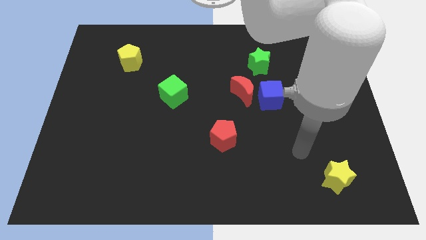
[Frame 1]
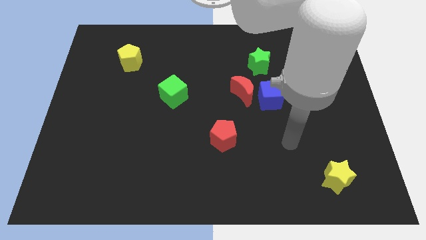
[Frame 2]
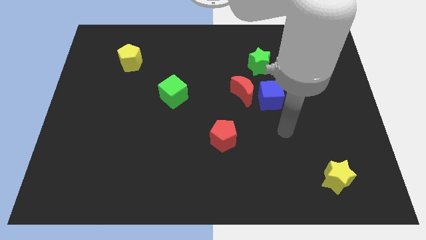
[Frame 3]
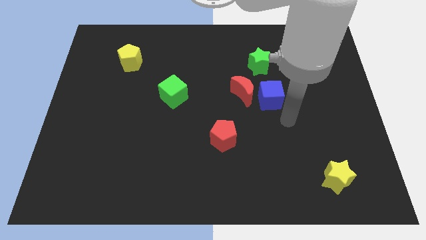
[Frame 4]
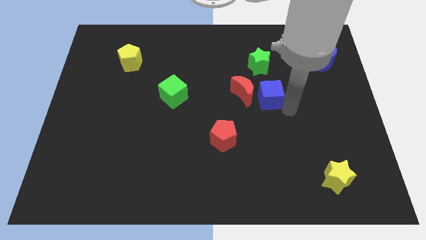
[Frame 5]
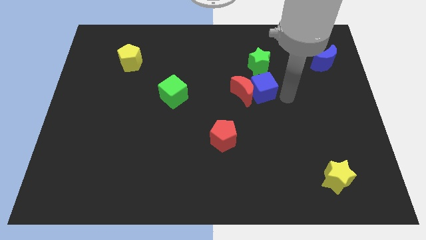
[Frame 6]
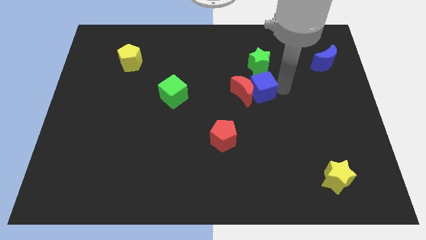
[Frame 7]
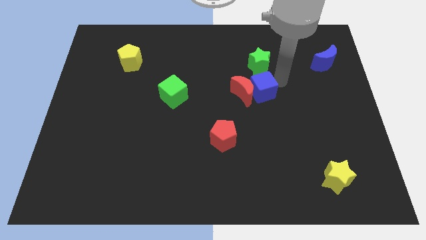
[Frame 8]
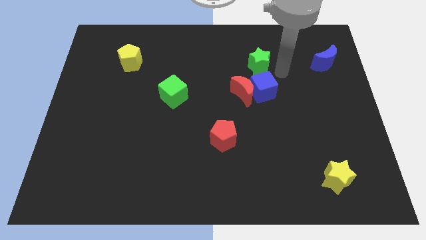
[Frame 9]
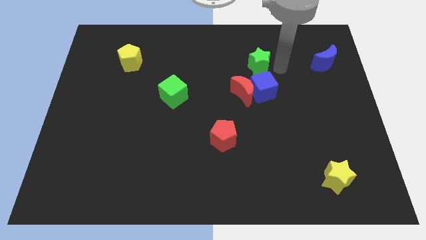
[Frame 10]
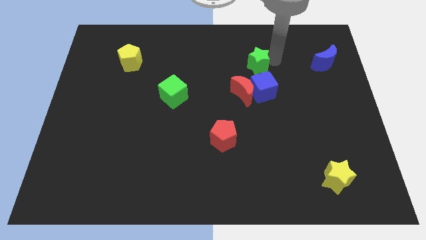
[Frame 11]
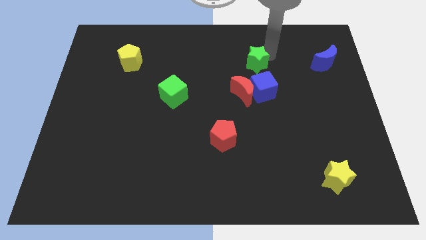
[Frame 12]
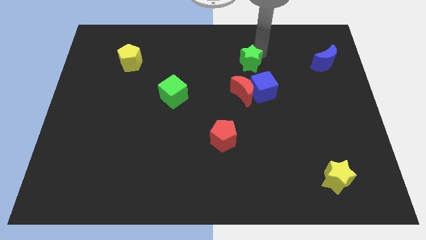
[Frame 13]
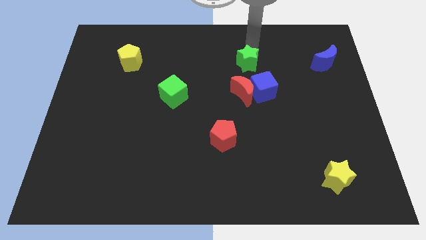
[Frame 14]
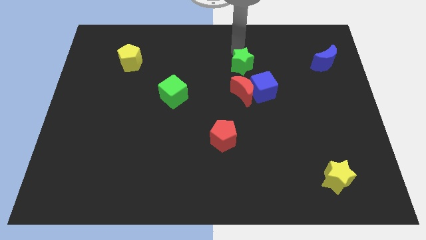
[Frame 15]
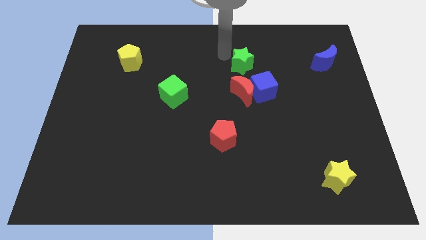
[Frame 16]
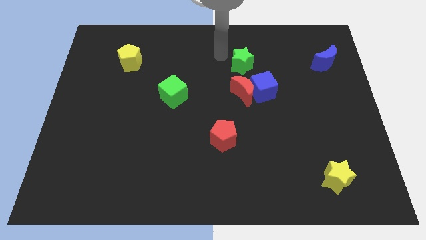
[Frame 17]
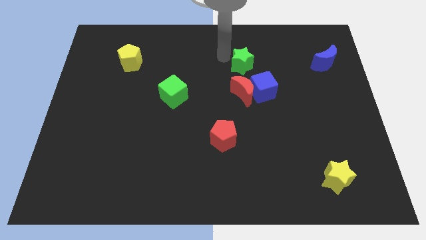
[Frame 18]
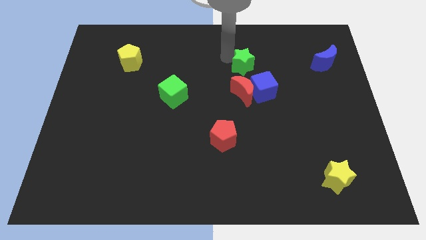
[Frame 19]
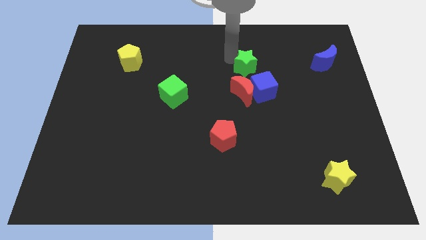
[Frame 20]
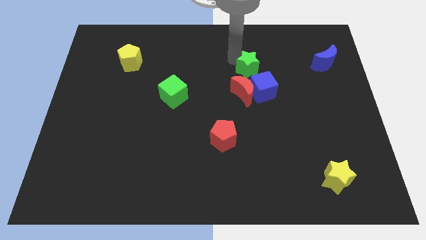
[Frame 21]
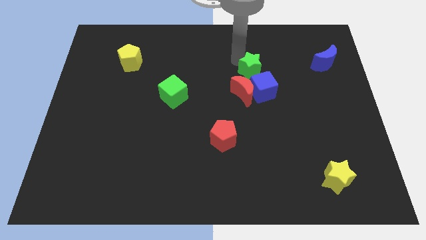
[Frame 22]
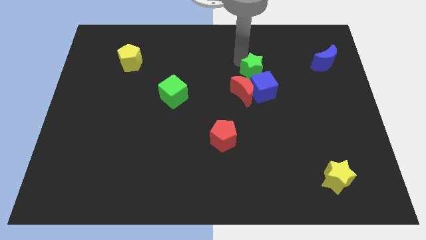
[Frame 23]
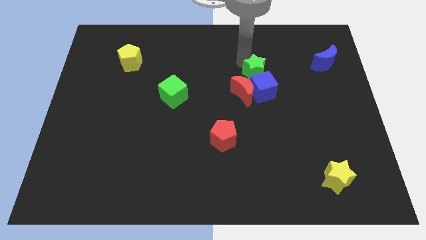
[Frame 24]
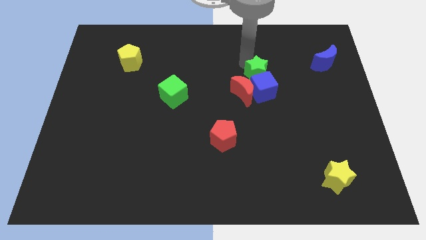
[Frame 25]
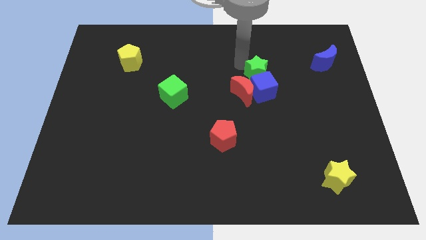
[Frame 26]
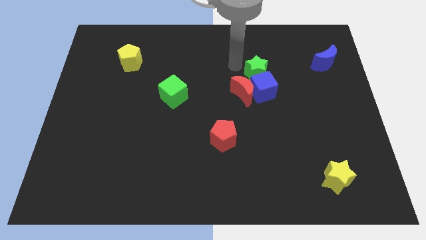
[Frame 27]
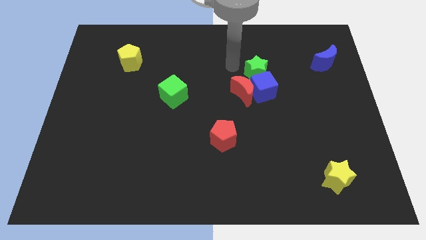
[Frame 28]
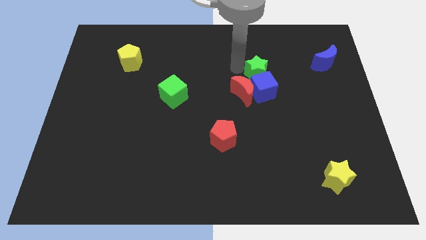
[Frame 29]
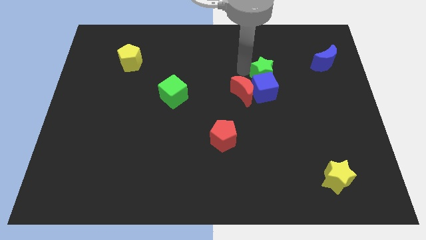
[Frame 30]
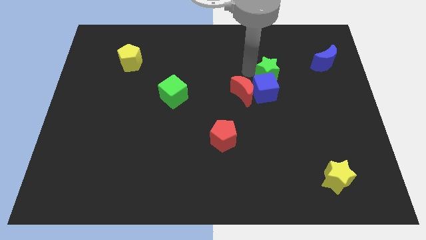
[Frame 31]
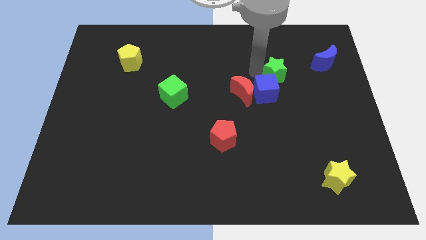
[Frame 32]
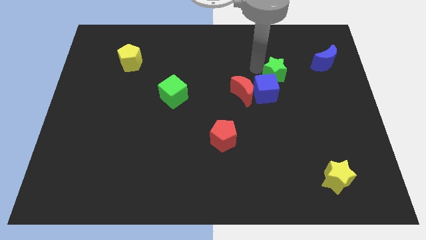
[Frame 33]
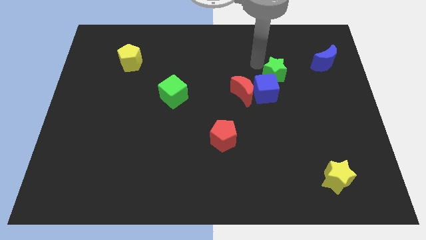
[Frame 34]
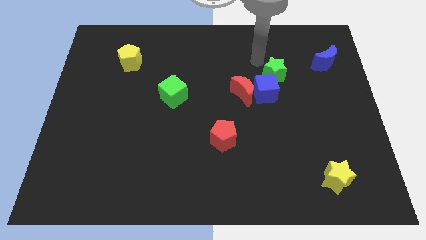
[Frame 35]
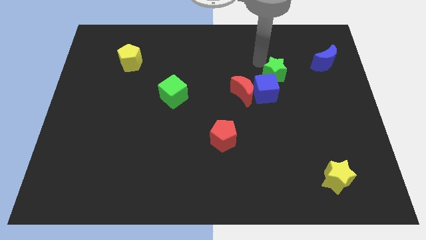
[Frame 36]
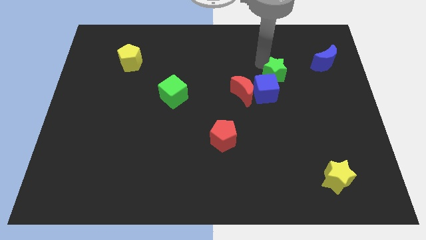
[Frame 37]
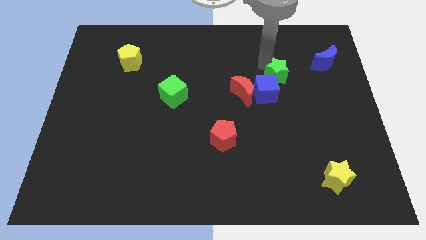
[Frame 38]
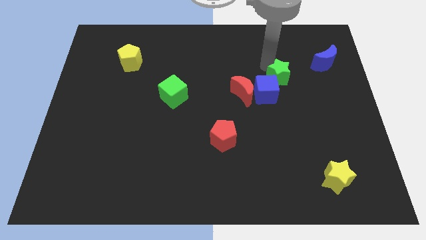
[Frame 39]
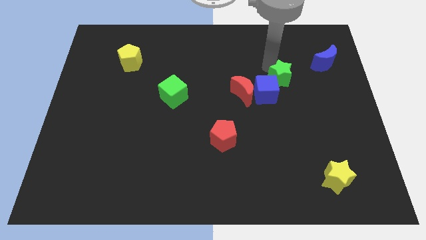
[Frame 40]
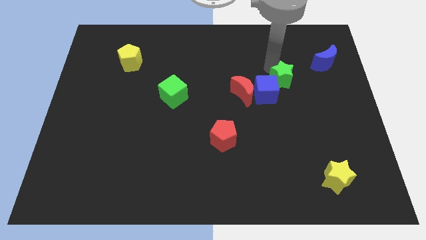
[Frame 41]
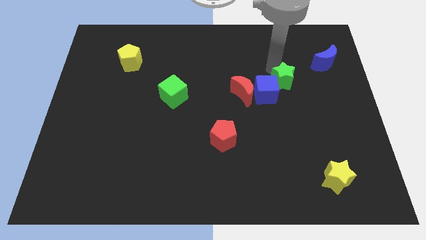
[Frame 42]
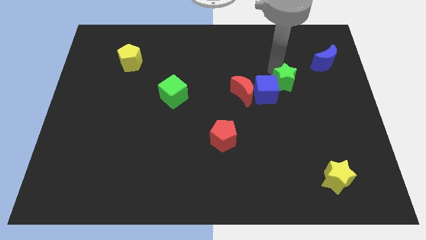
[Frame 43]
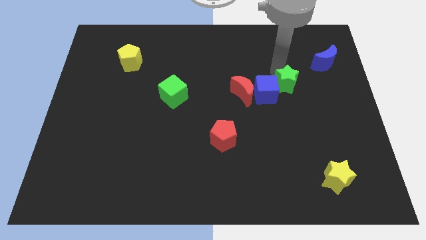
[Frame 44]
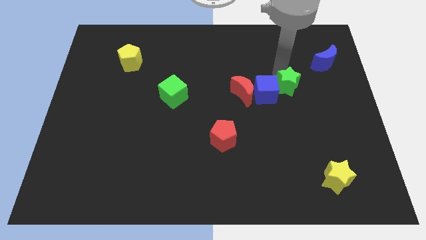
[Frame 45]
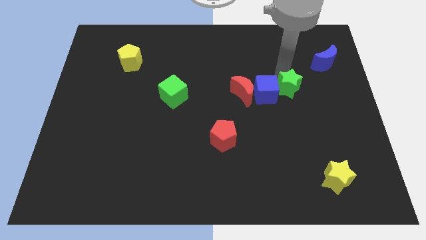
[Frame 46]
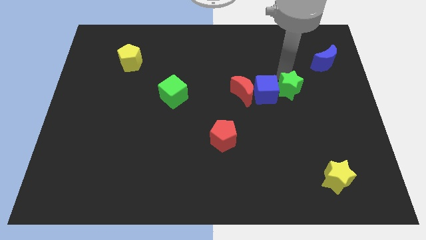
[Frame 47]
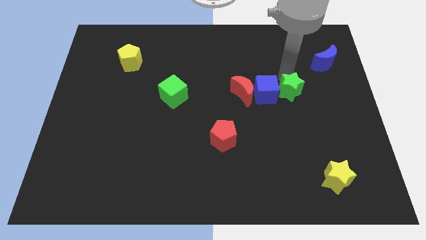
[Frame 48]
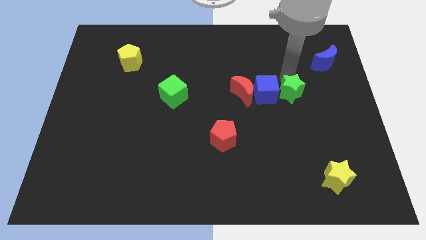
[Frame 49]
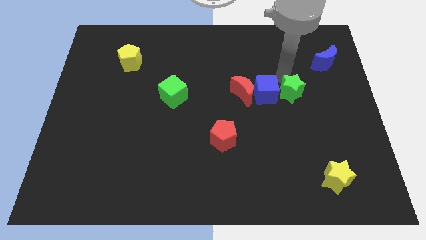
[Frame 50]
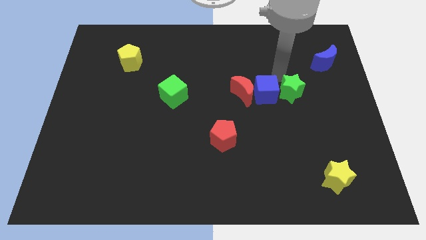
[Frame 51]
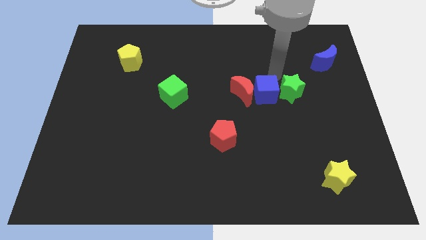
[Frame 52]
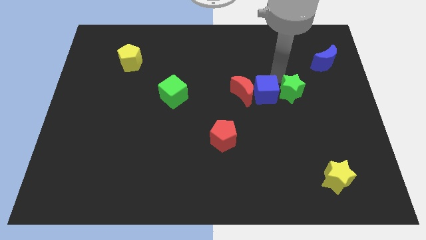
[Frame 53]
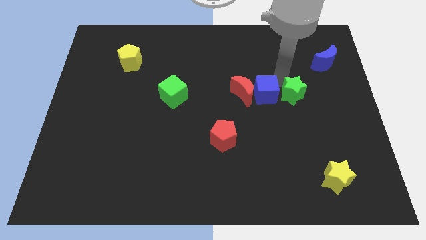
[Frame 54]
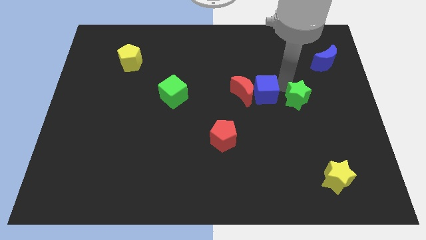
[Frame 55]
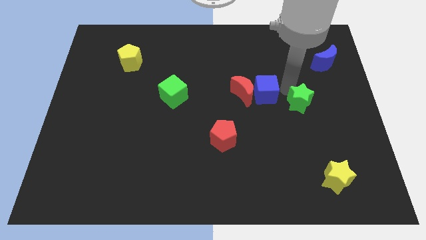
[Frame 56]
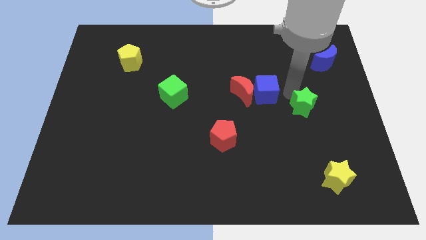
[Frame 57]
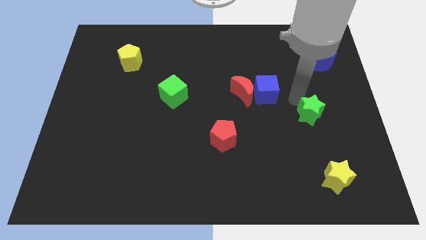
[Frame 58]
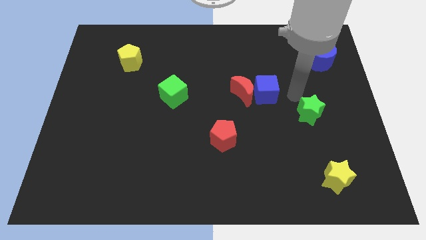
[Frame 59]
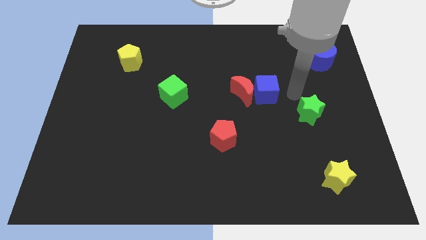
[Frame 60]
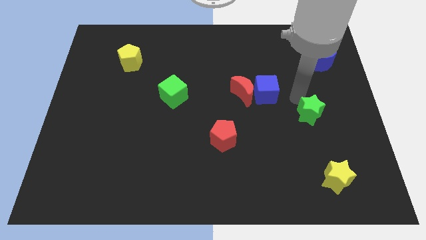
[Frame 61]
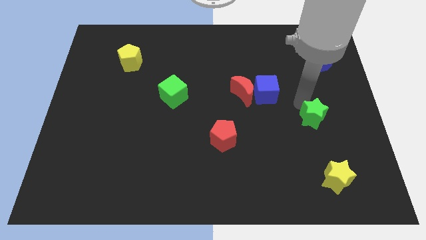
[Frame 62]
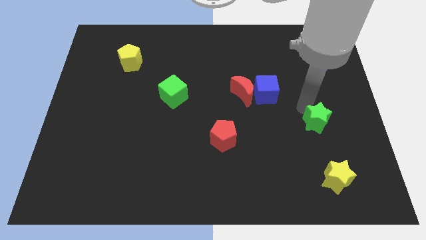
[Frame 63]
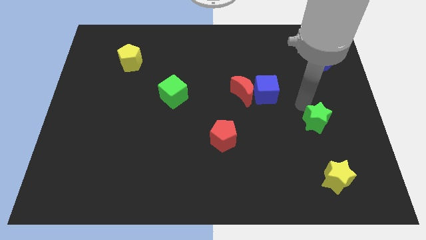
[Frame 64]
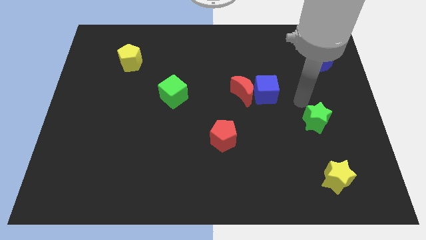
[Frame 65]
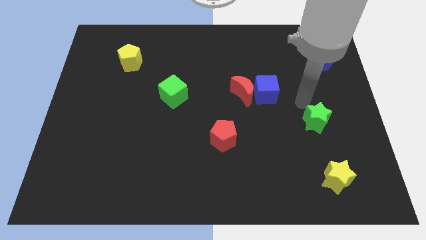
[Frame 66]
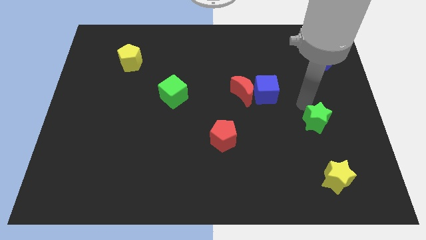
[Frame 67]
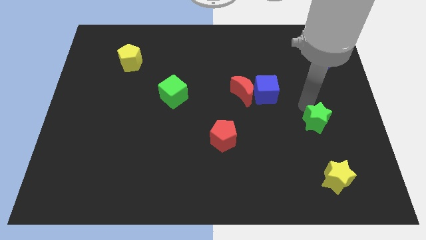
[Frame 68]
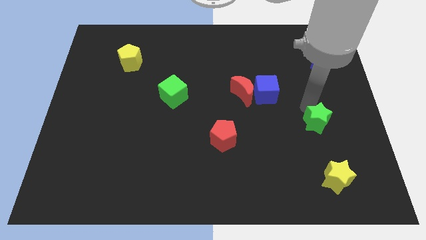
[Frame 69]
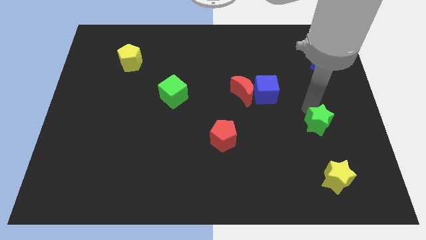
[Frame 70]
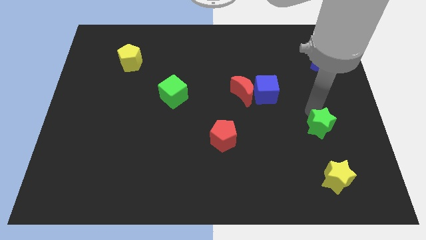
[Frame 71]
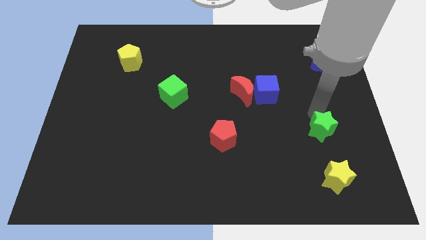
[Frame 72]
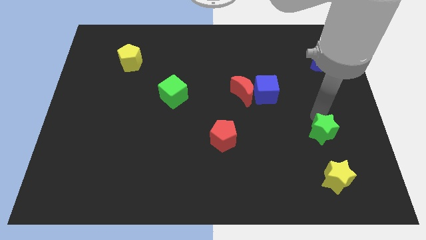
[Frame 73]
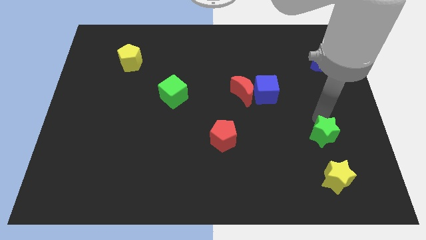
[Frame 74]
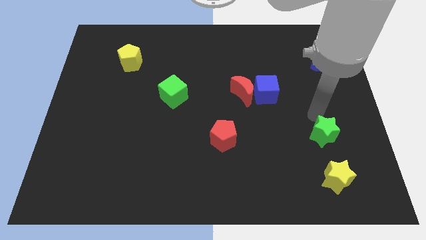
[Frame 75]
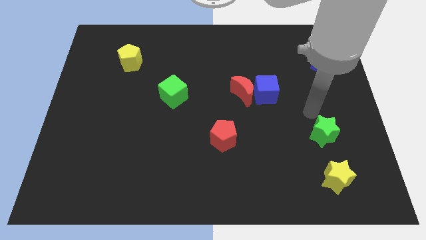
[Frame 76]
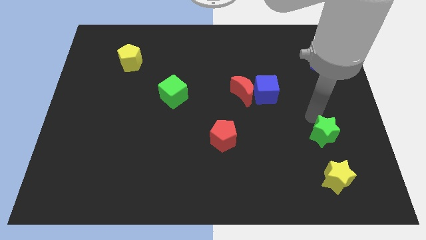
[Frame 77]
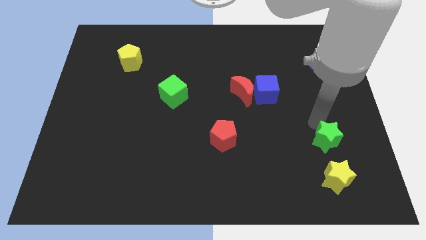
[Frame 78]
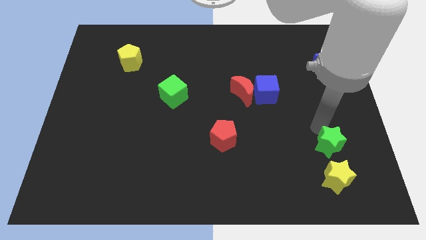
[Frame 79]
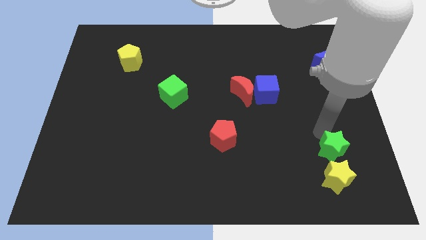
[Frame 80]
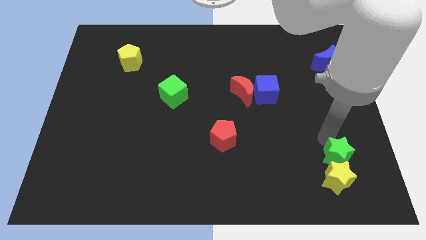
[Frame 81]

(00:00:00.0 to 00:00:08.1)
push the green star close to the yellow star
